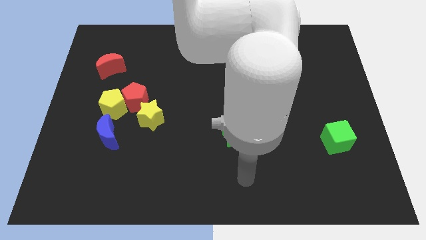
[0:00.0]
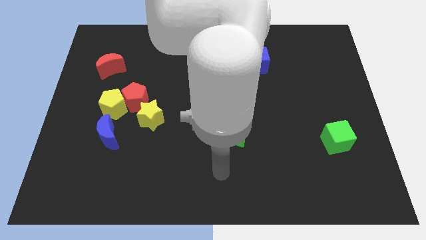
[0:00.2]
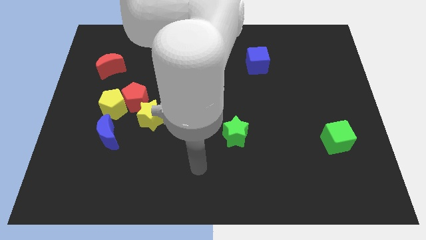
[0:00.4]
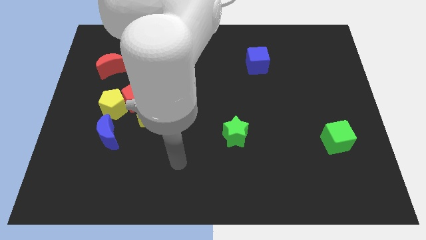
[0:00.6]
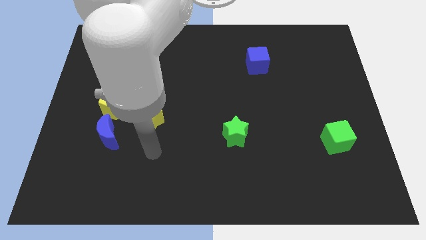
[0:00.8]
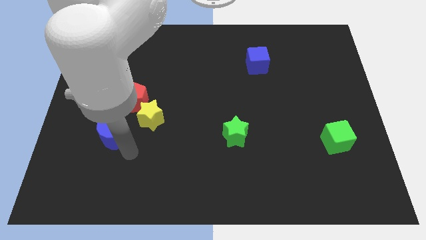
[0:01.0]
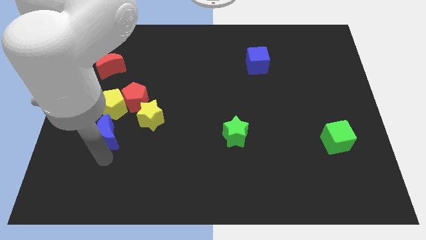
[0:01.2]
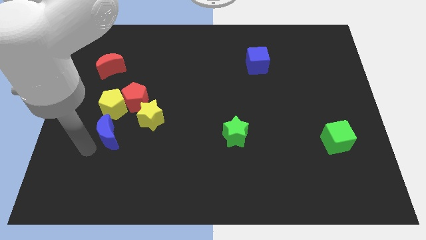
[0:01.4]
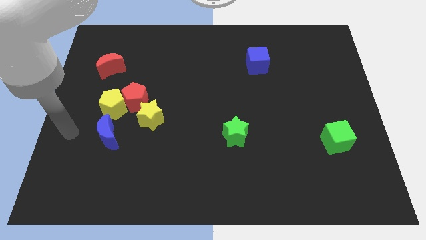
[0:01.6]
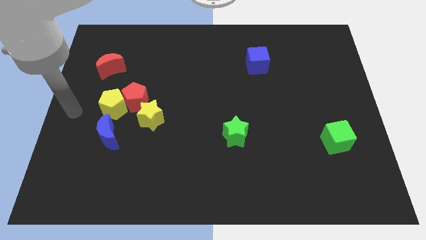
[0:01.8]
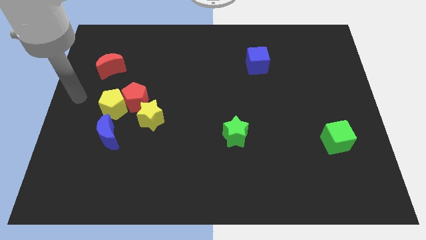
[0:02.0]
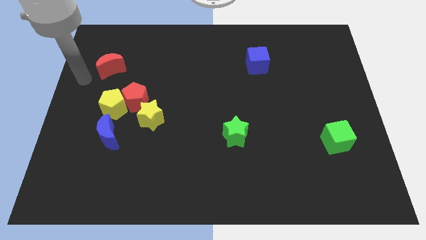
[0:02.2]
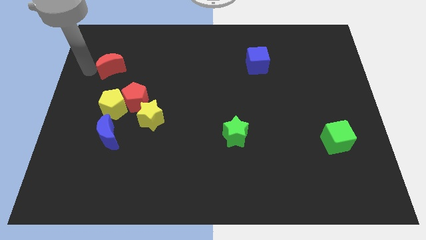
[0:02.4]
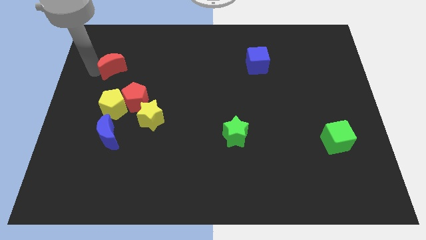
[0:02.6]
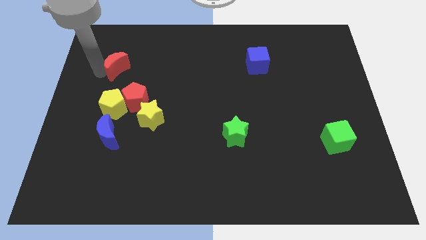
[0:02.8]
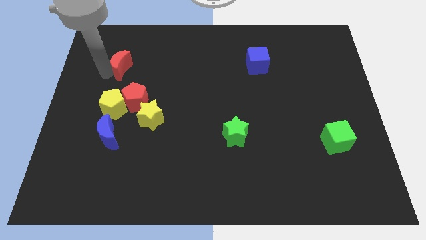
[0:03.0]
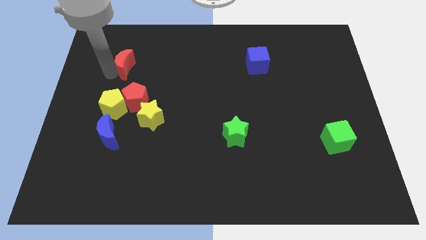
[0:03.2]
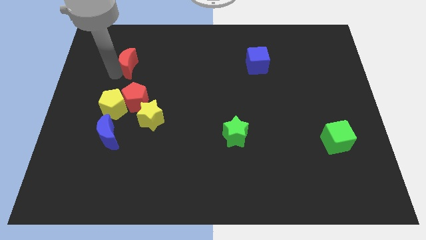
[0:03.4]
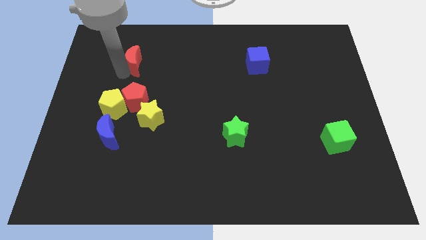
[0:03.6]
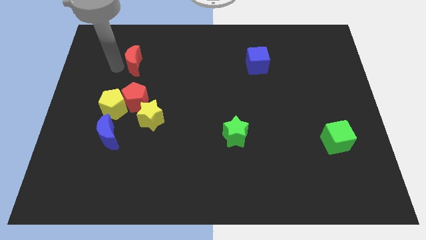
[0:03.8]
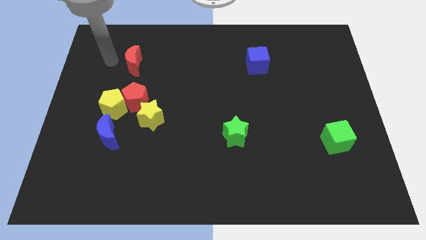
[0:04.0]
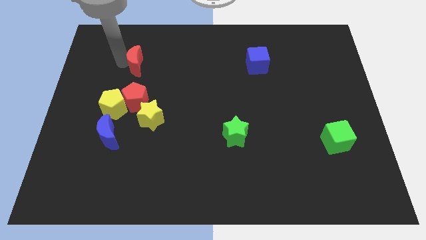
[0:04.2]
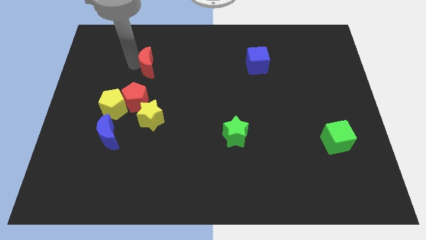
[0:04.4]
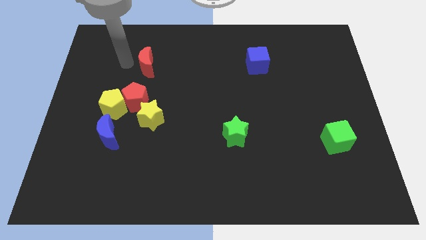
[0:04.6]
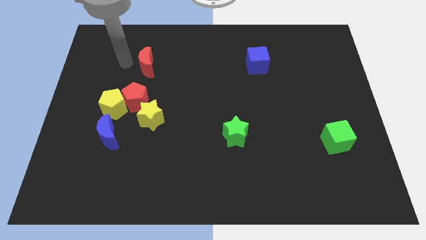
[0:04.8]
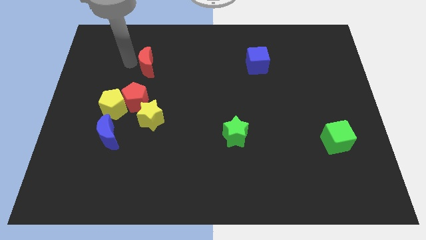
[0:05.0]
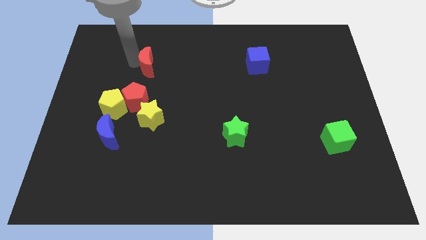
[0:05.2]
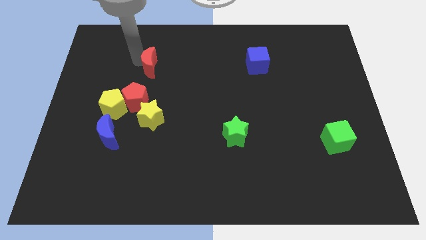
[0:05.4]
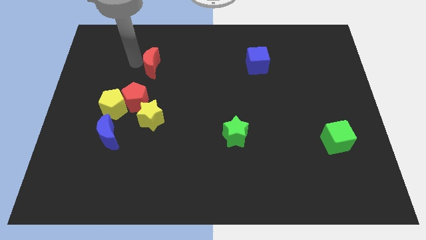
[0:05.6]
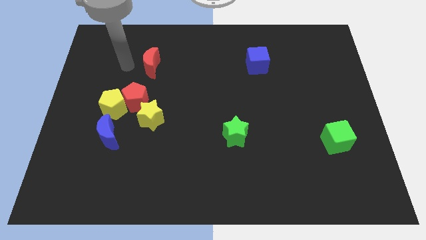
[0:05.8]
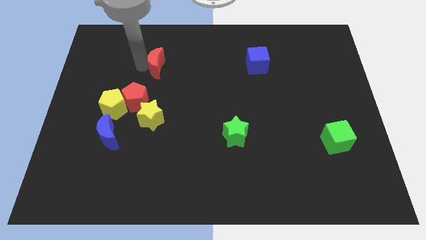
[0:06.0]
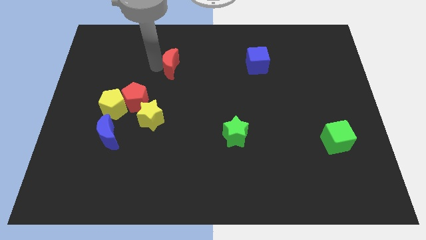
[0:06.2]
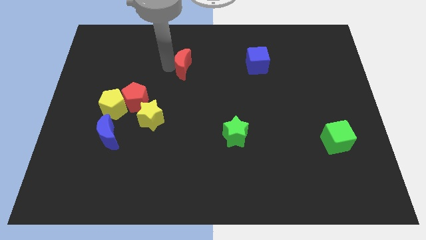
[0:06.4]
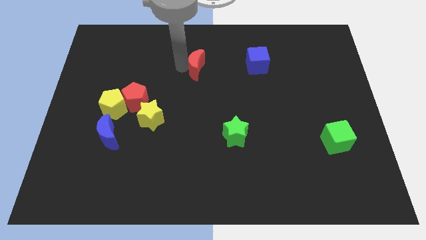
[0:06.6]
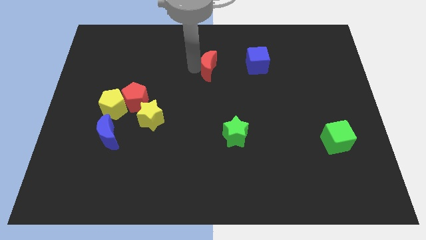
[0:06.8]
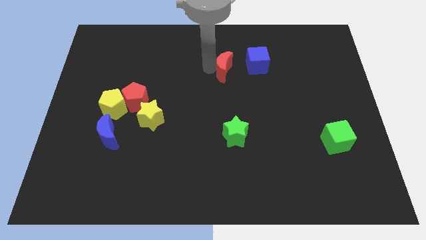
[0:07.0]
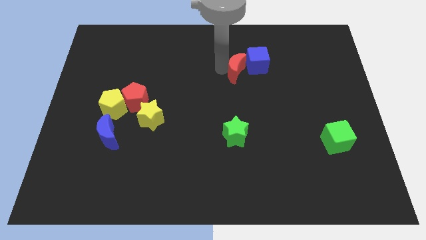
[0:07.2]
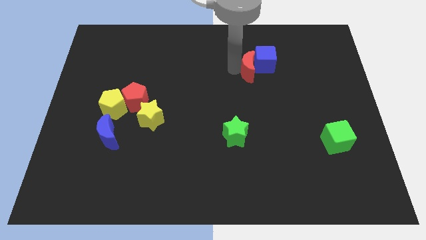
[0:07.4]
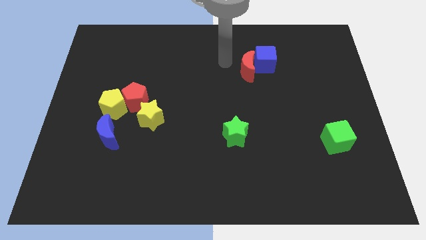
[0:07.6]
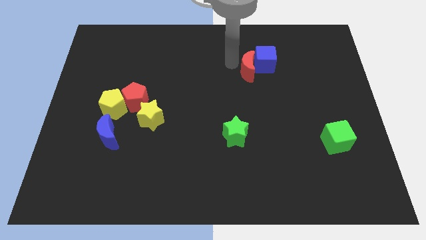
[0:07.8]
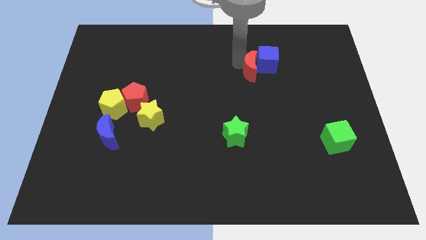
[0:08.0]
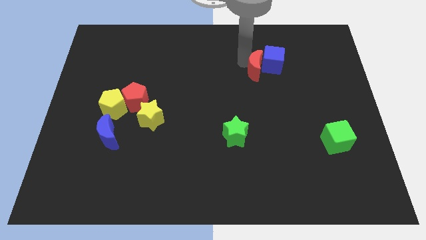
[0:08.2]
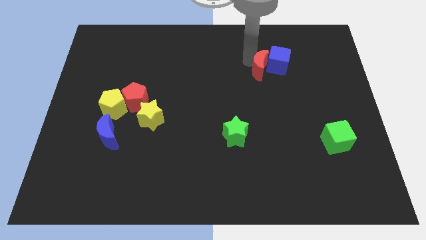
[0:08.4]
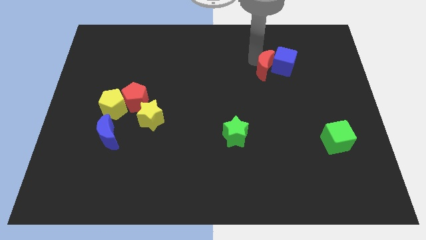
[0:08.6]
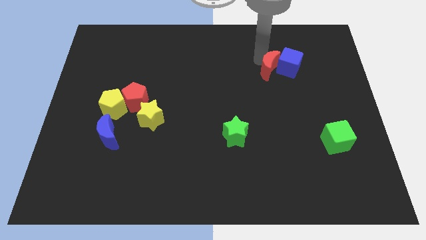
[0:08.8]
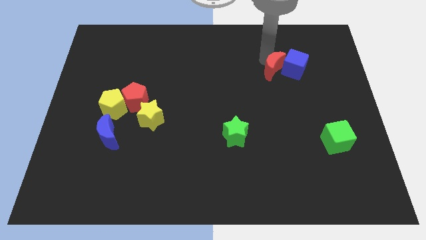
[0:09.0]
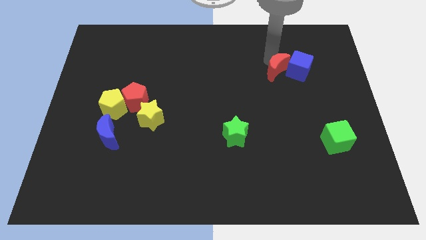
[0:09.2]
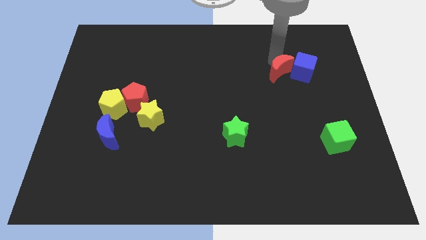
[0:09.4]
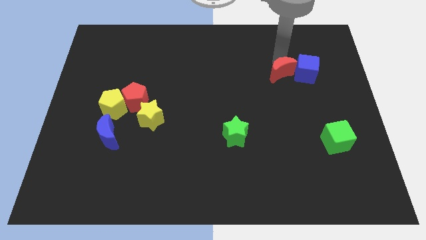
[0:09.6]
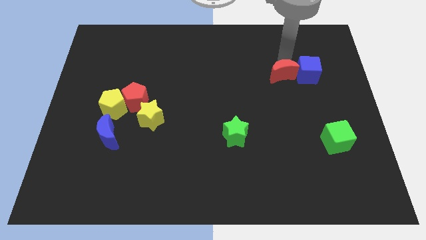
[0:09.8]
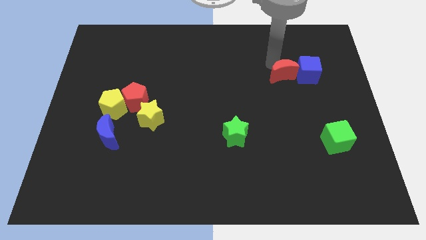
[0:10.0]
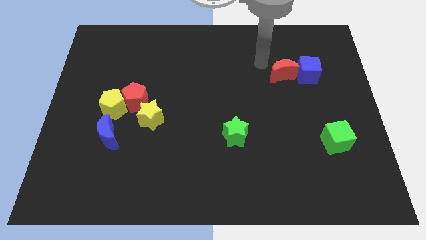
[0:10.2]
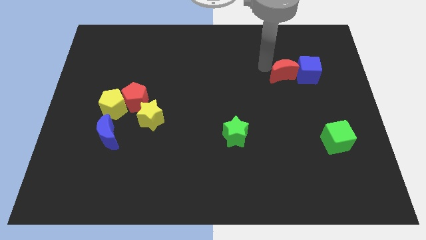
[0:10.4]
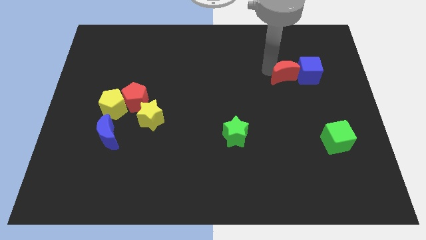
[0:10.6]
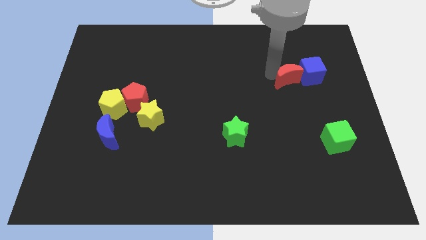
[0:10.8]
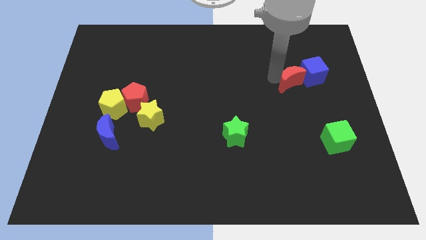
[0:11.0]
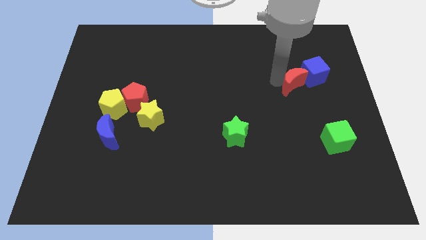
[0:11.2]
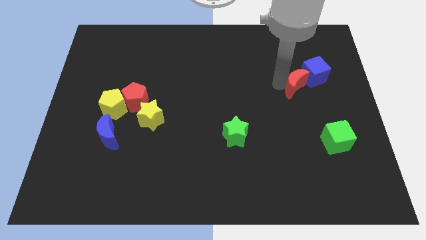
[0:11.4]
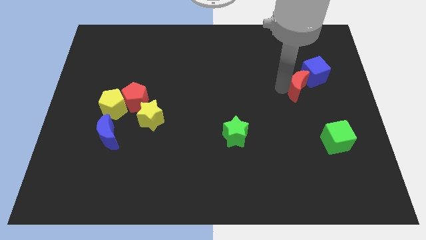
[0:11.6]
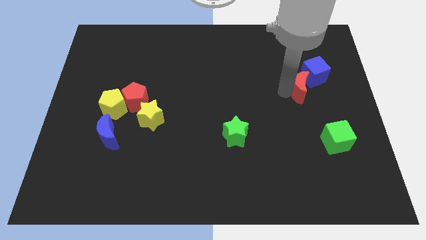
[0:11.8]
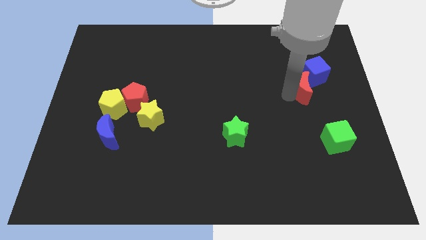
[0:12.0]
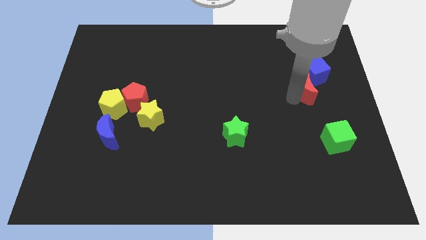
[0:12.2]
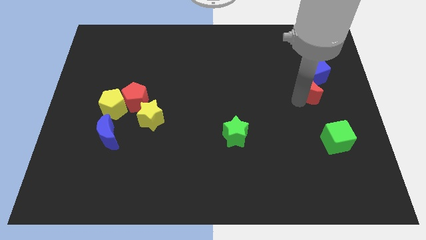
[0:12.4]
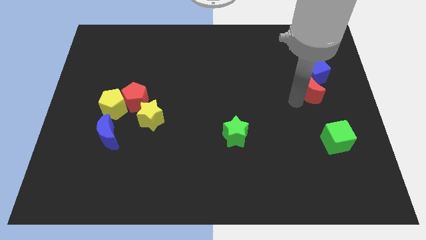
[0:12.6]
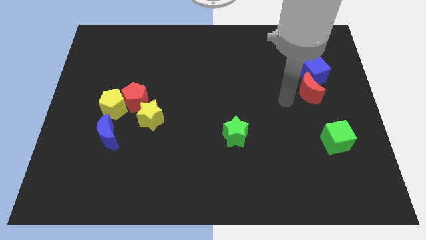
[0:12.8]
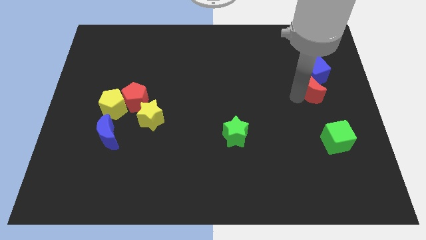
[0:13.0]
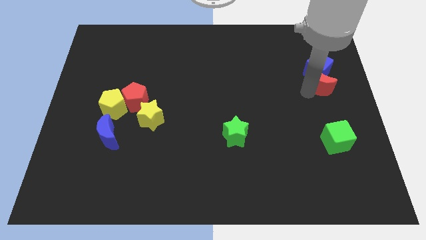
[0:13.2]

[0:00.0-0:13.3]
push the red moon to the right side of the board
